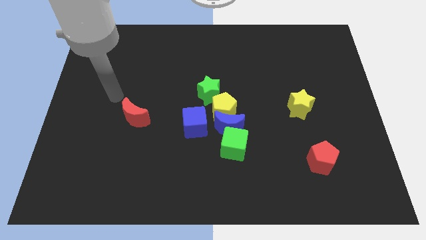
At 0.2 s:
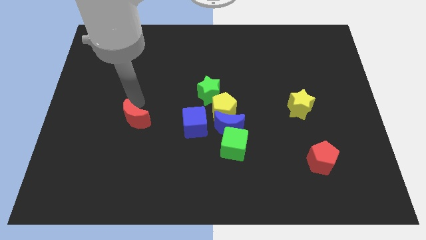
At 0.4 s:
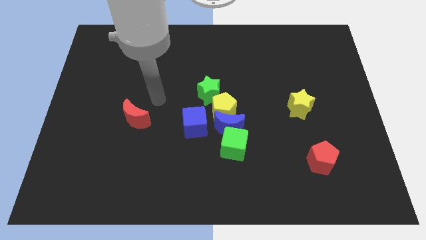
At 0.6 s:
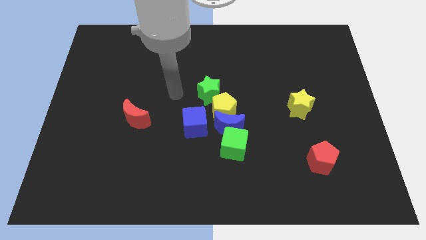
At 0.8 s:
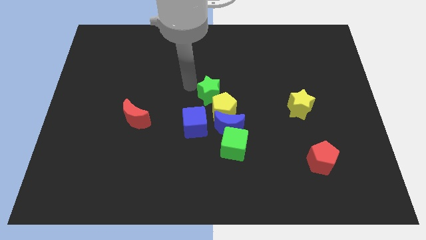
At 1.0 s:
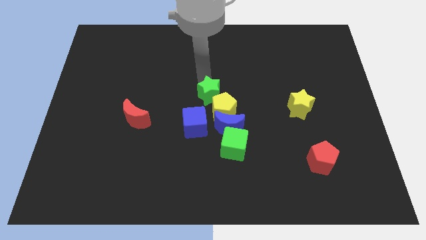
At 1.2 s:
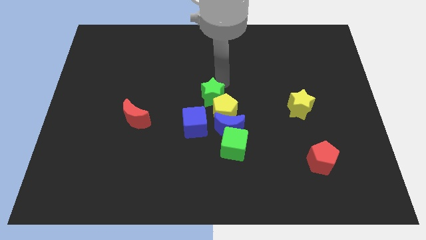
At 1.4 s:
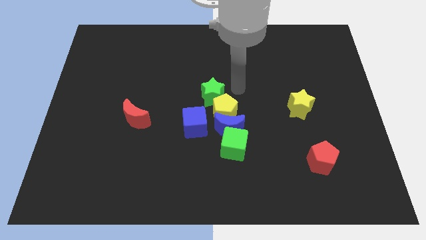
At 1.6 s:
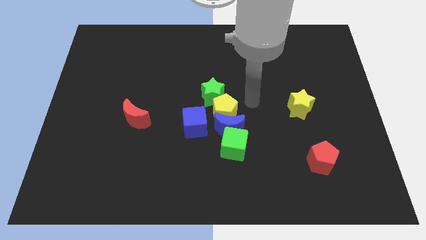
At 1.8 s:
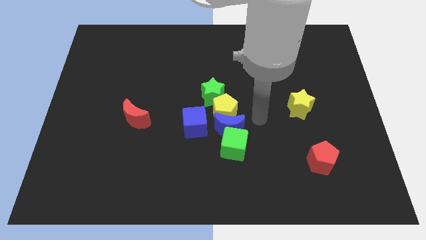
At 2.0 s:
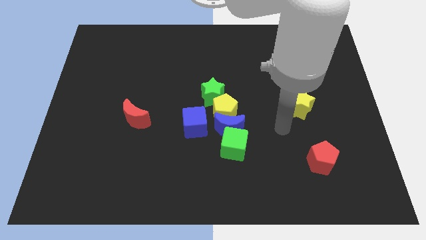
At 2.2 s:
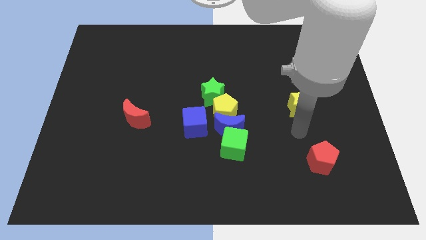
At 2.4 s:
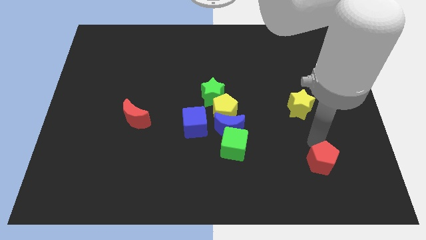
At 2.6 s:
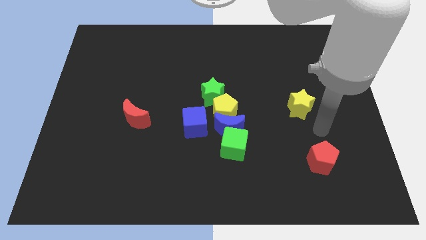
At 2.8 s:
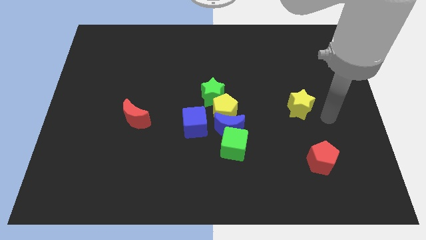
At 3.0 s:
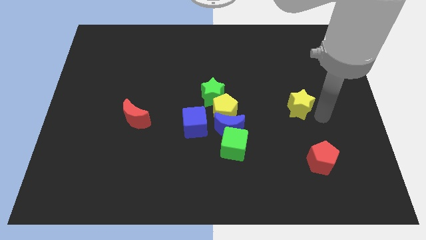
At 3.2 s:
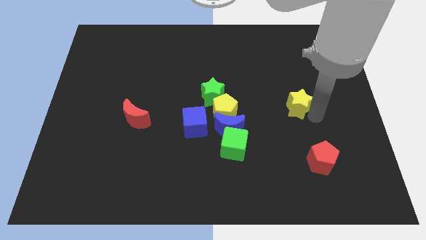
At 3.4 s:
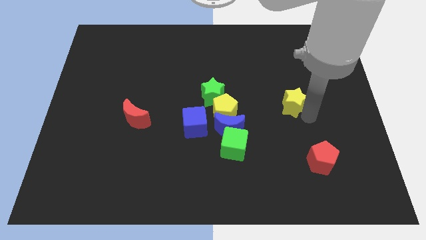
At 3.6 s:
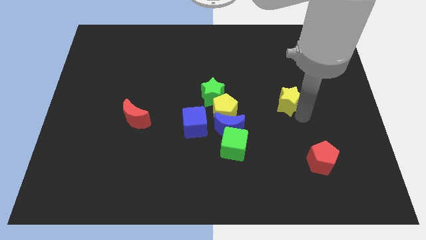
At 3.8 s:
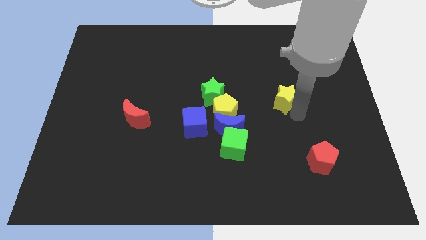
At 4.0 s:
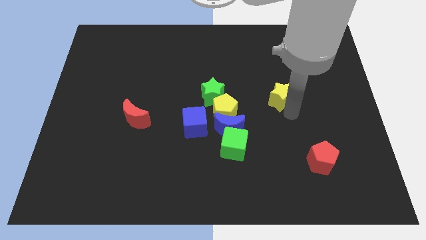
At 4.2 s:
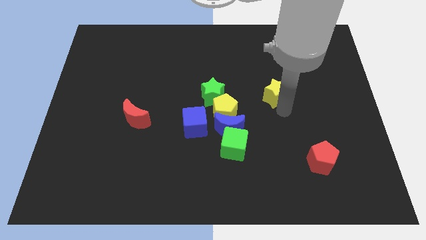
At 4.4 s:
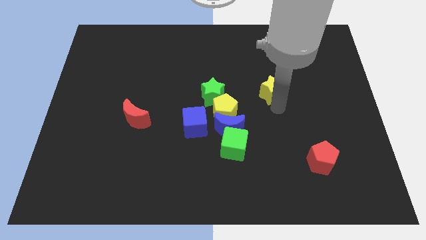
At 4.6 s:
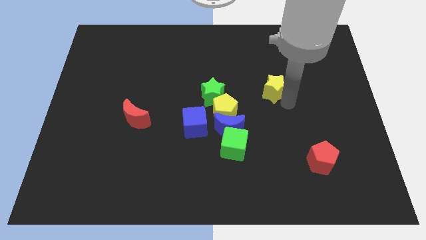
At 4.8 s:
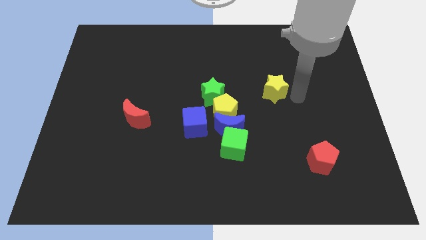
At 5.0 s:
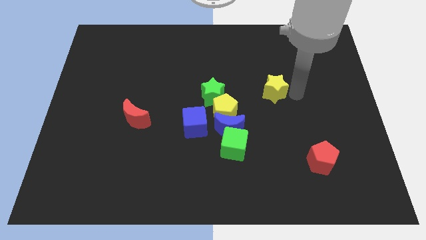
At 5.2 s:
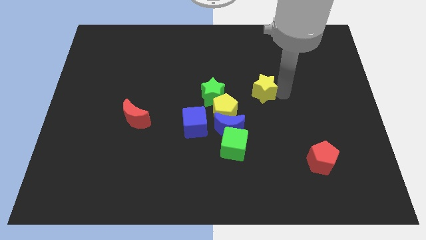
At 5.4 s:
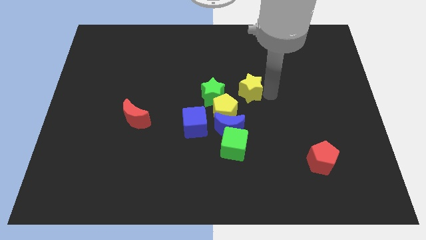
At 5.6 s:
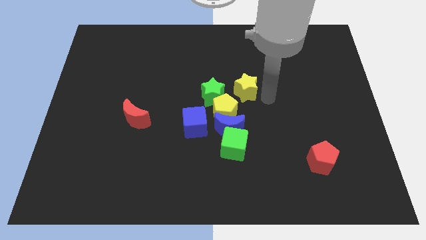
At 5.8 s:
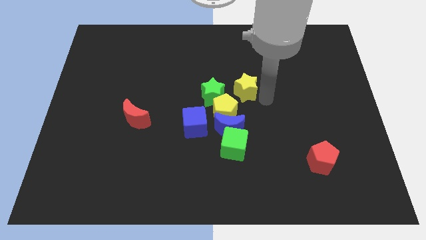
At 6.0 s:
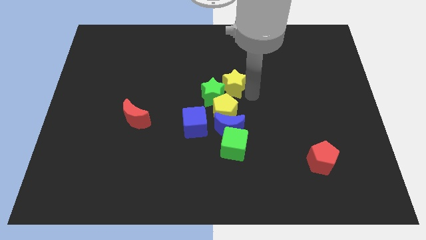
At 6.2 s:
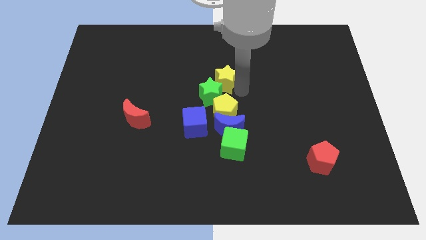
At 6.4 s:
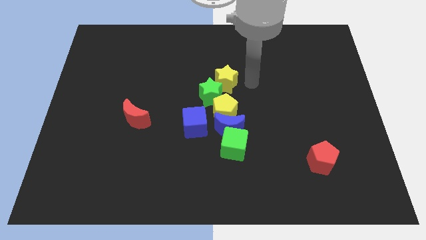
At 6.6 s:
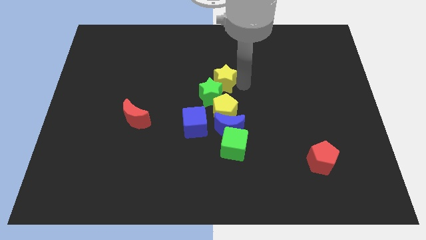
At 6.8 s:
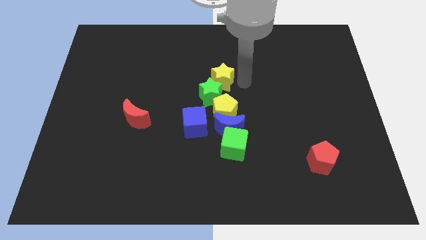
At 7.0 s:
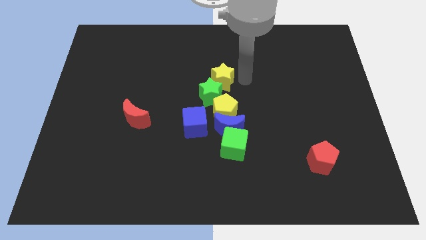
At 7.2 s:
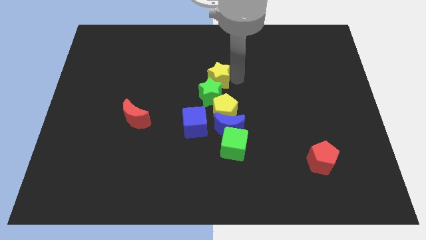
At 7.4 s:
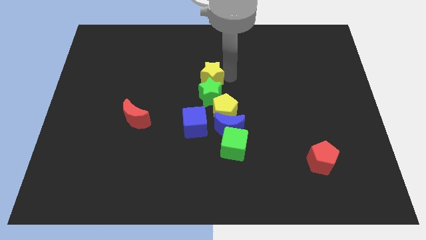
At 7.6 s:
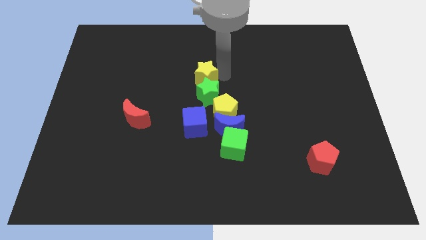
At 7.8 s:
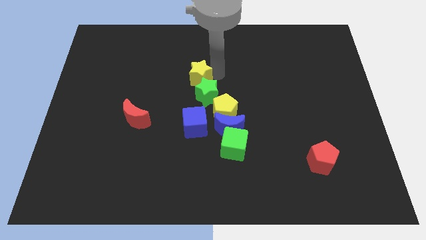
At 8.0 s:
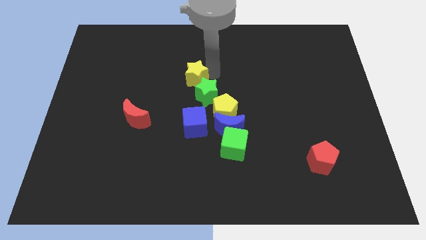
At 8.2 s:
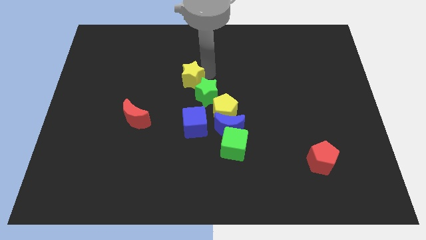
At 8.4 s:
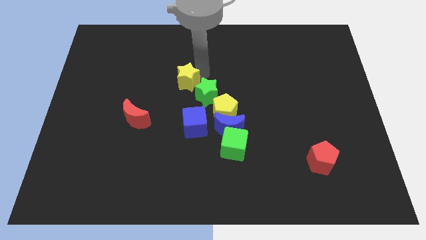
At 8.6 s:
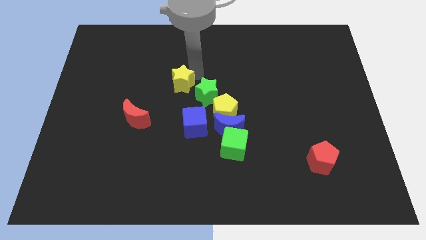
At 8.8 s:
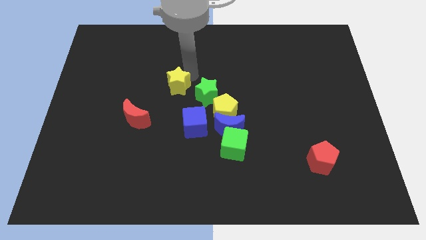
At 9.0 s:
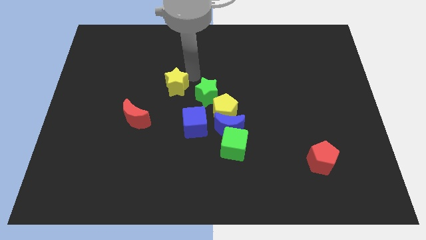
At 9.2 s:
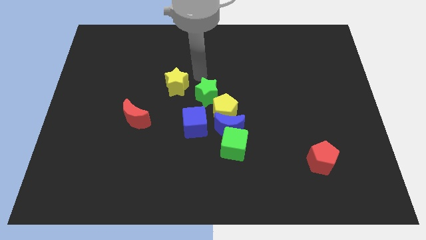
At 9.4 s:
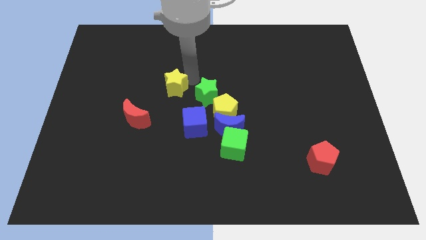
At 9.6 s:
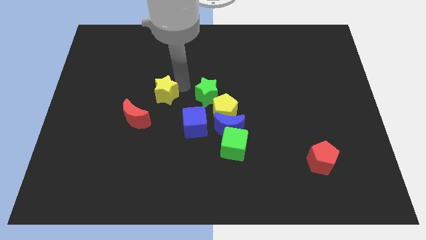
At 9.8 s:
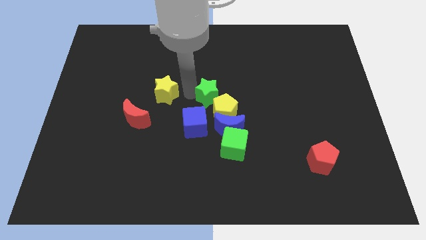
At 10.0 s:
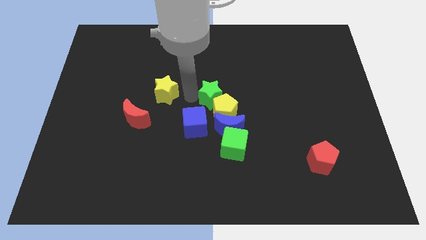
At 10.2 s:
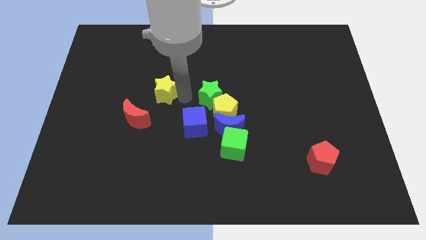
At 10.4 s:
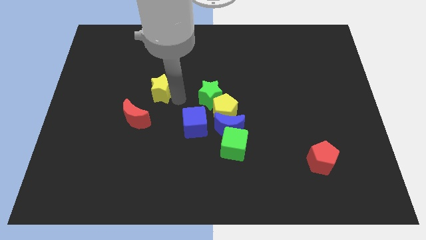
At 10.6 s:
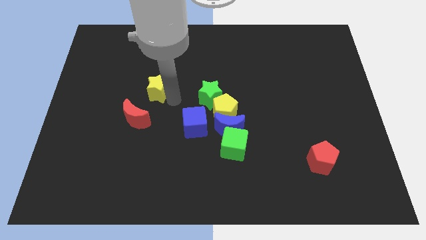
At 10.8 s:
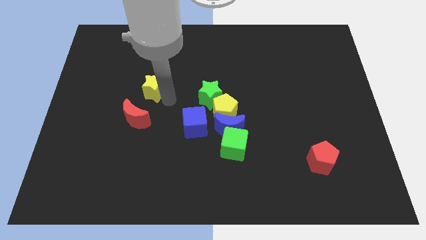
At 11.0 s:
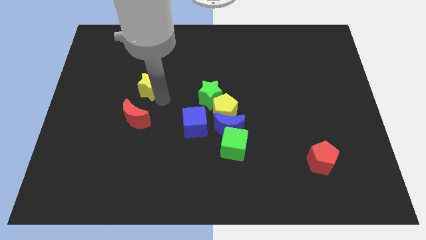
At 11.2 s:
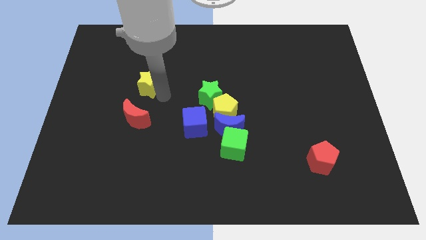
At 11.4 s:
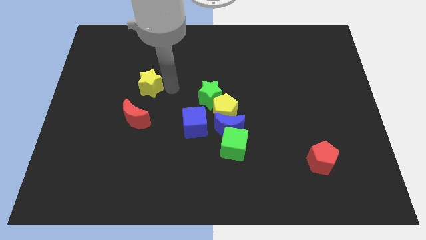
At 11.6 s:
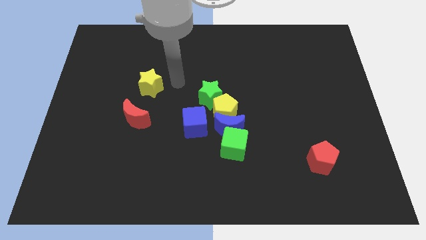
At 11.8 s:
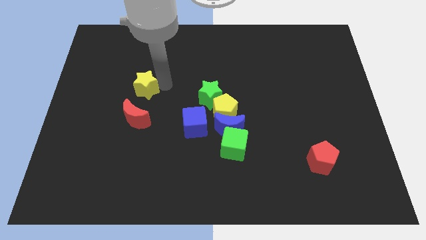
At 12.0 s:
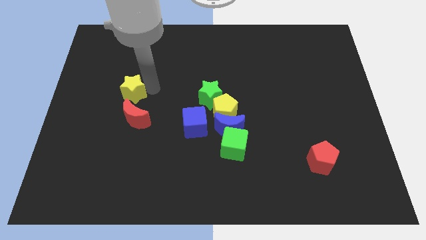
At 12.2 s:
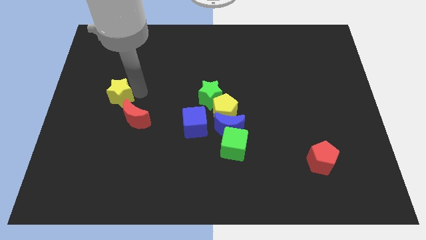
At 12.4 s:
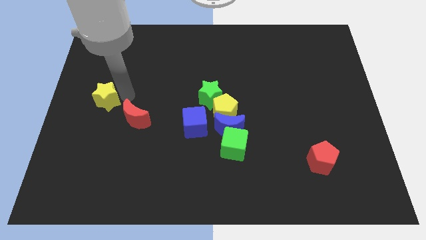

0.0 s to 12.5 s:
slide the yellow star to the left side

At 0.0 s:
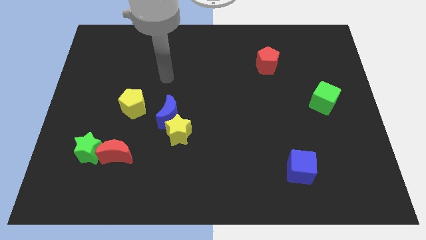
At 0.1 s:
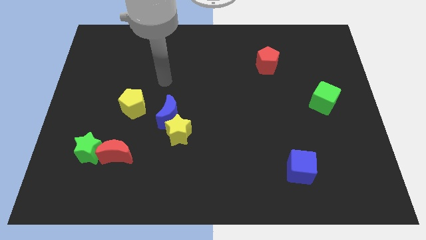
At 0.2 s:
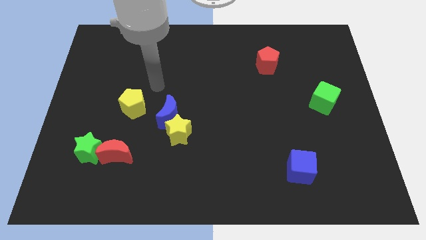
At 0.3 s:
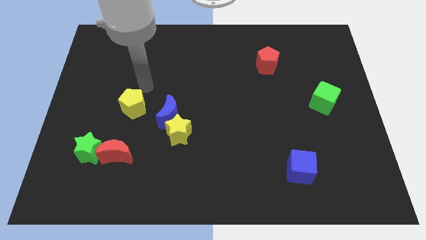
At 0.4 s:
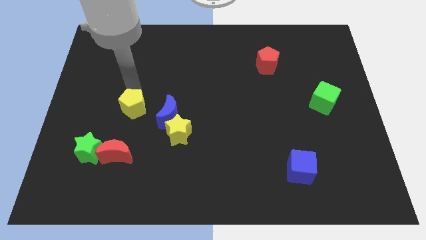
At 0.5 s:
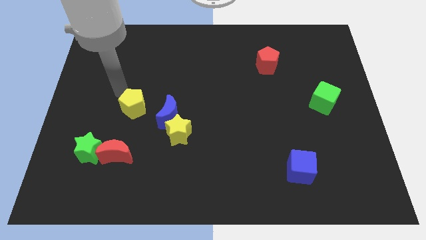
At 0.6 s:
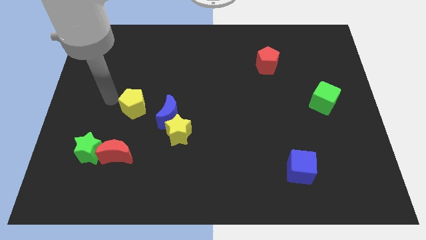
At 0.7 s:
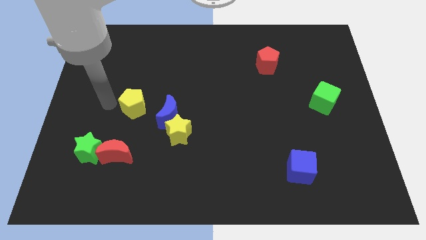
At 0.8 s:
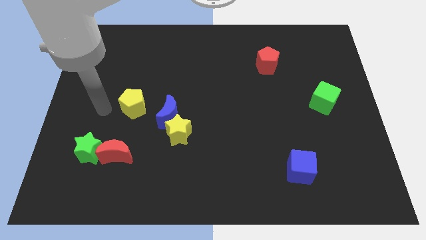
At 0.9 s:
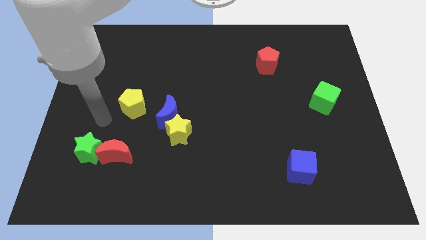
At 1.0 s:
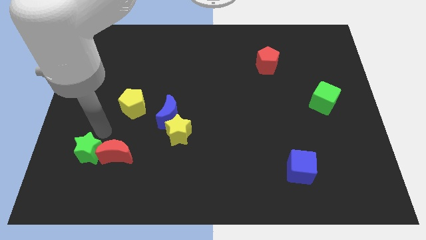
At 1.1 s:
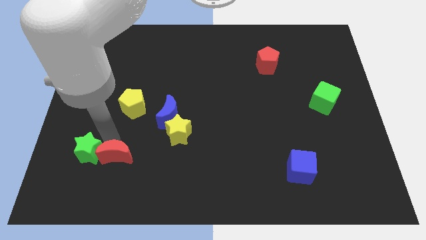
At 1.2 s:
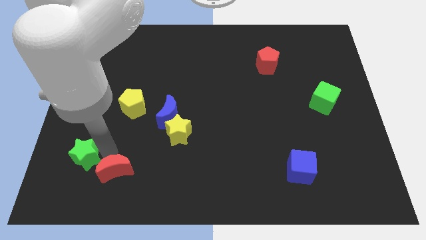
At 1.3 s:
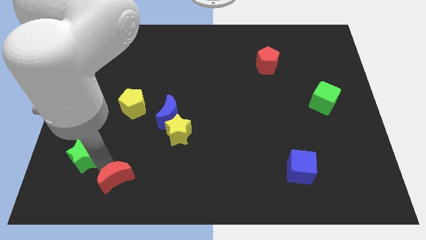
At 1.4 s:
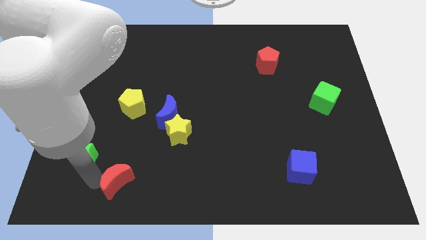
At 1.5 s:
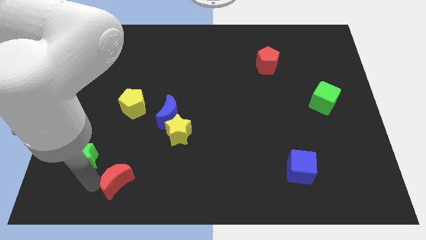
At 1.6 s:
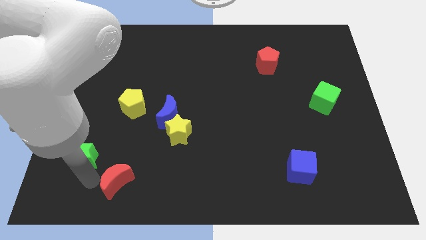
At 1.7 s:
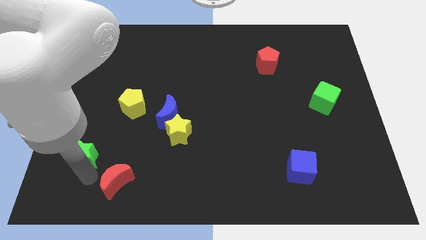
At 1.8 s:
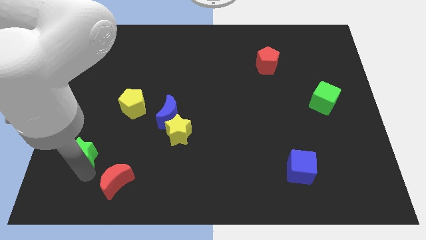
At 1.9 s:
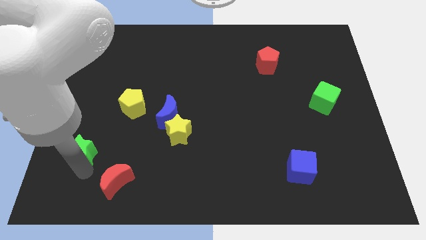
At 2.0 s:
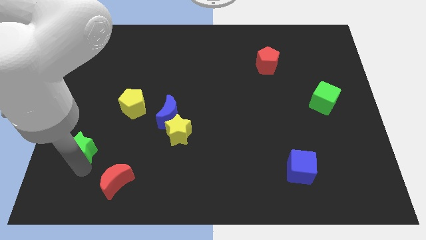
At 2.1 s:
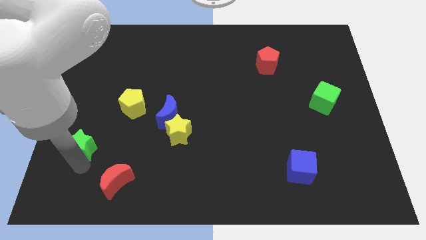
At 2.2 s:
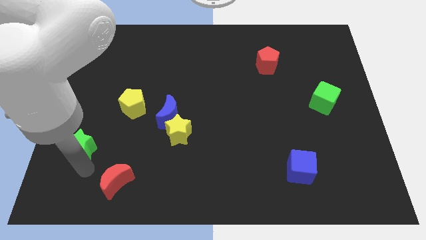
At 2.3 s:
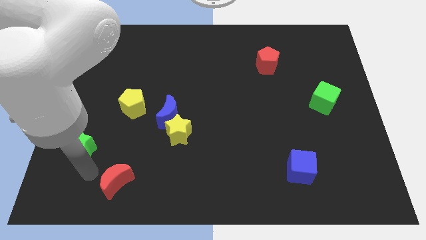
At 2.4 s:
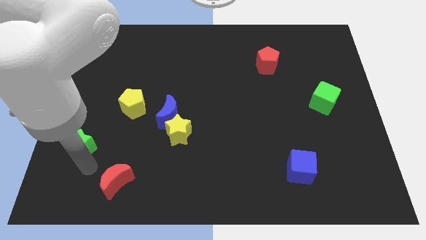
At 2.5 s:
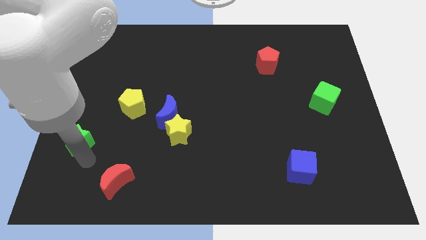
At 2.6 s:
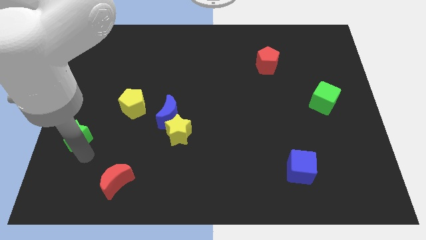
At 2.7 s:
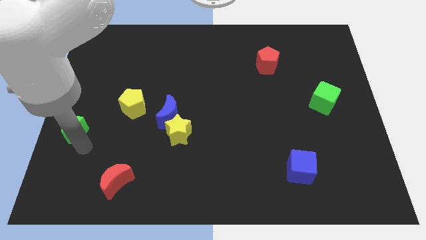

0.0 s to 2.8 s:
put the green star to the center left
